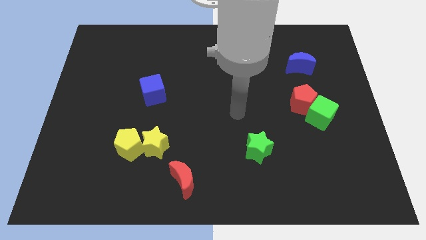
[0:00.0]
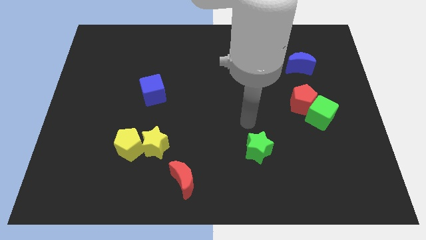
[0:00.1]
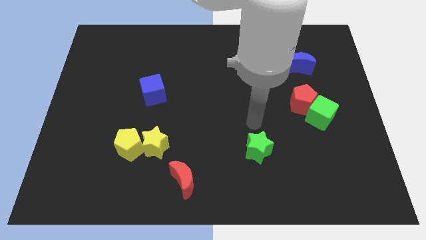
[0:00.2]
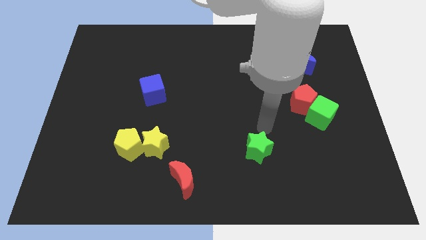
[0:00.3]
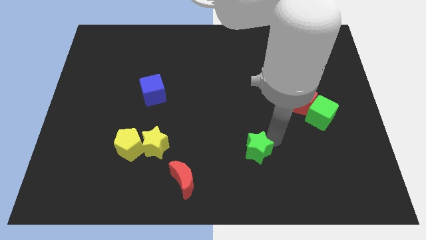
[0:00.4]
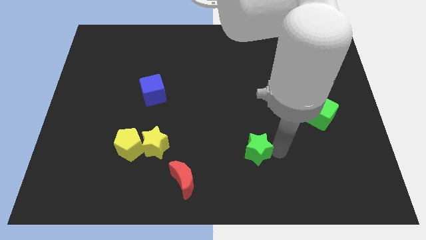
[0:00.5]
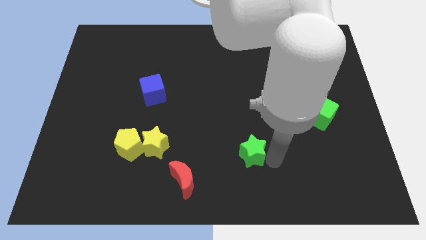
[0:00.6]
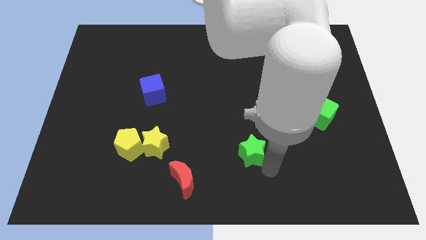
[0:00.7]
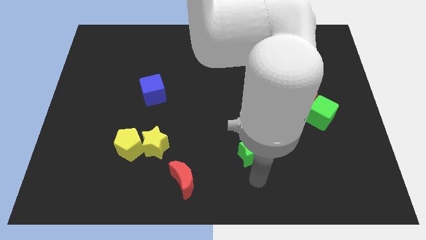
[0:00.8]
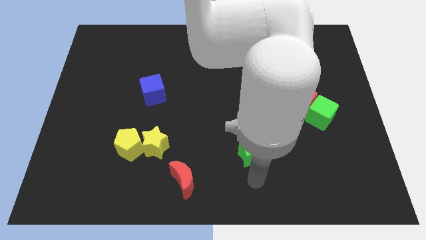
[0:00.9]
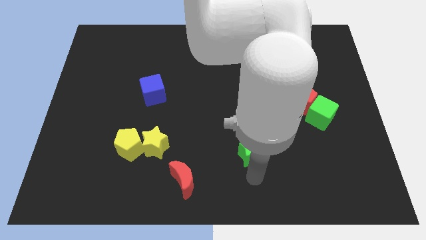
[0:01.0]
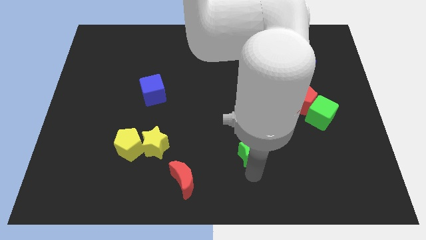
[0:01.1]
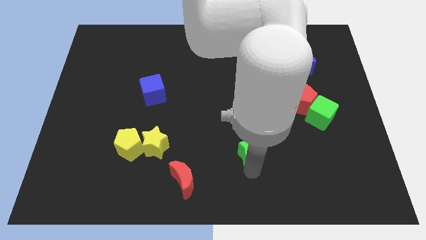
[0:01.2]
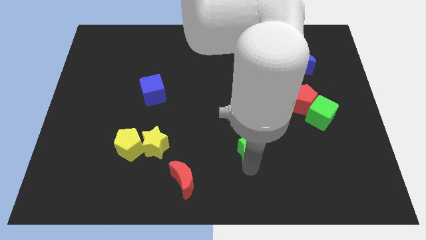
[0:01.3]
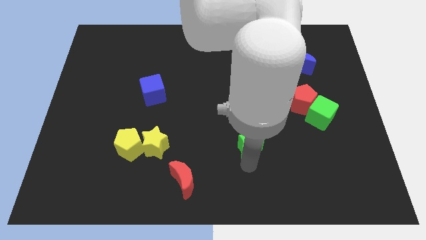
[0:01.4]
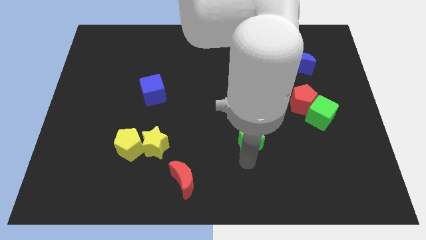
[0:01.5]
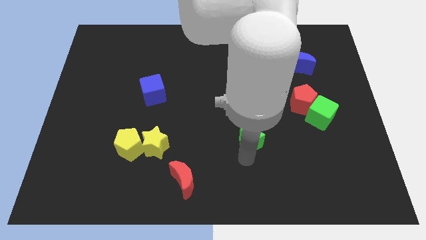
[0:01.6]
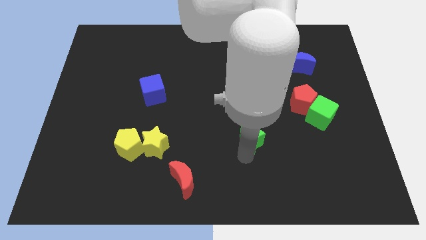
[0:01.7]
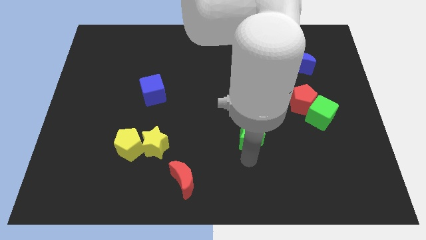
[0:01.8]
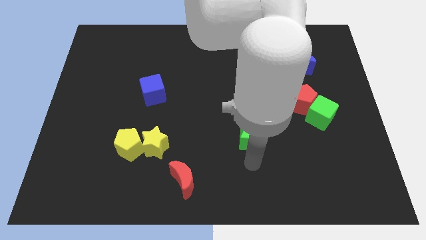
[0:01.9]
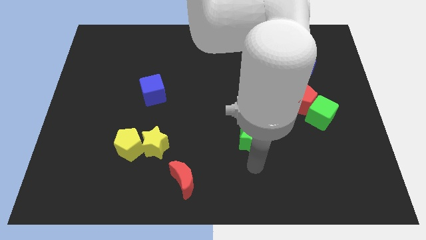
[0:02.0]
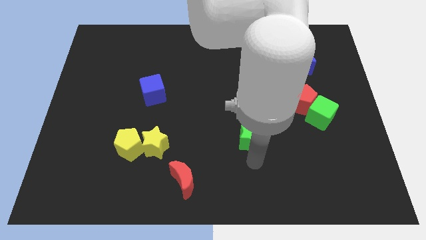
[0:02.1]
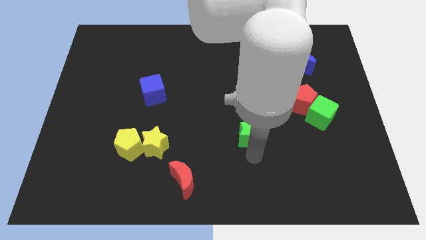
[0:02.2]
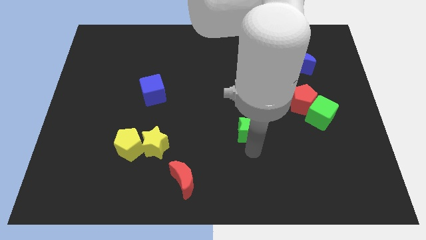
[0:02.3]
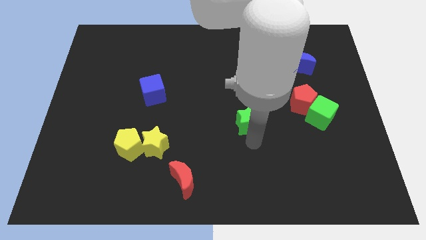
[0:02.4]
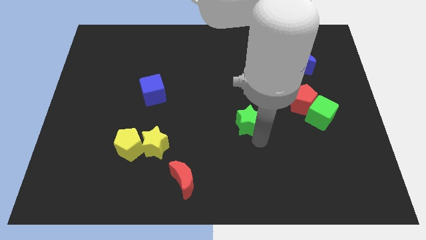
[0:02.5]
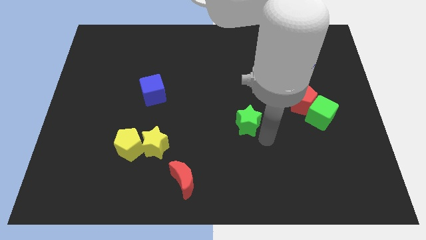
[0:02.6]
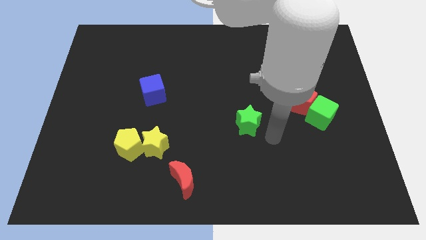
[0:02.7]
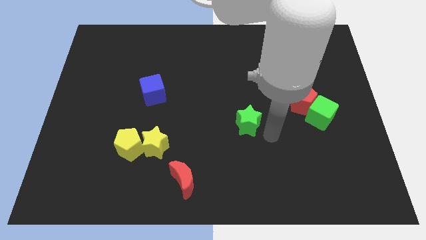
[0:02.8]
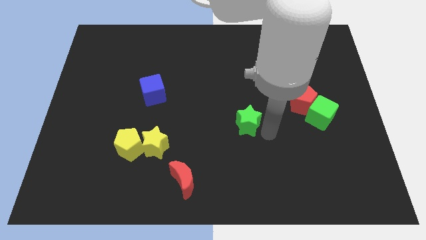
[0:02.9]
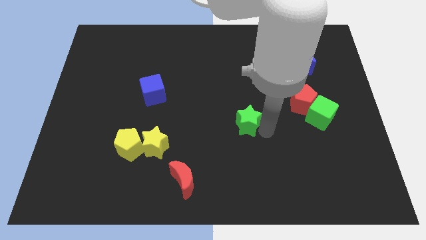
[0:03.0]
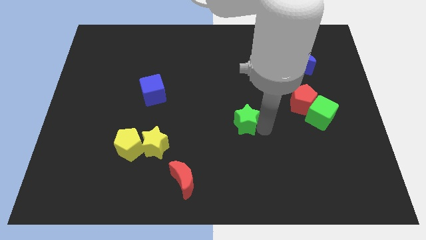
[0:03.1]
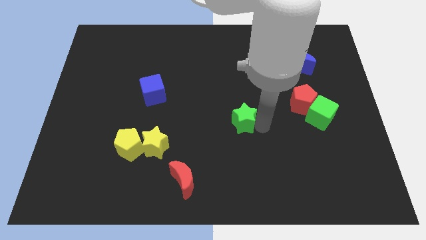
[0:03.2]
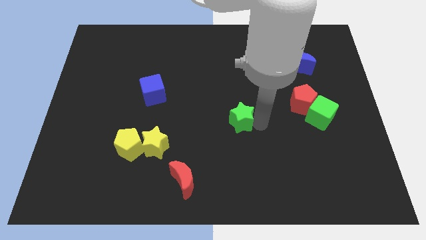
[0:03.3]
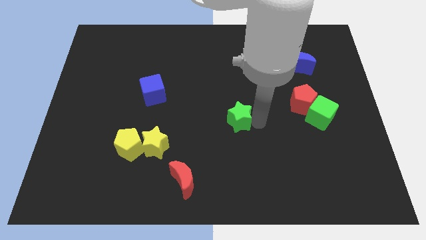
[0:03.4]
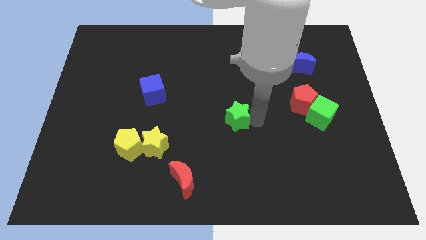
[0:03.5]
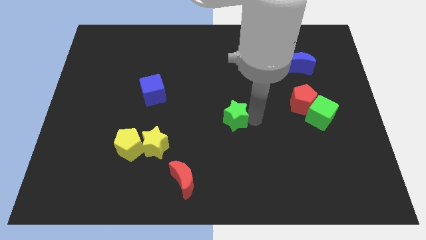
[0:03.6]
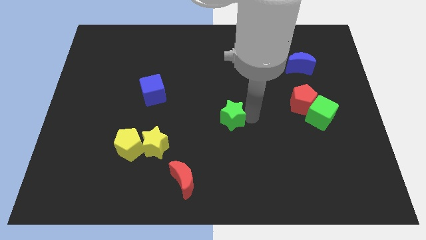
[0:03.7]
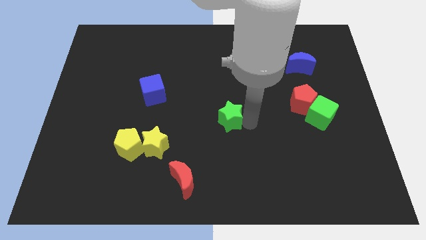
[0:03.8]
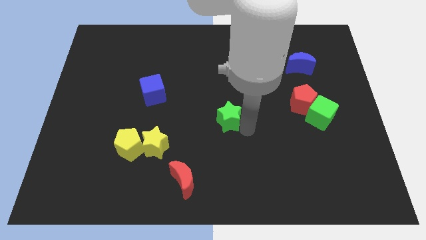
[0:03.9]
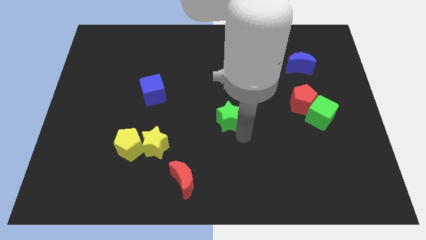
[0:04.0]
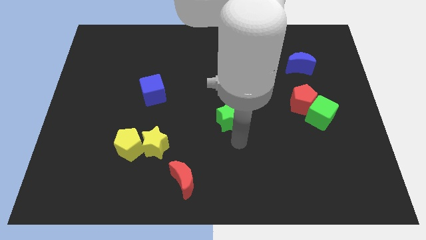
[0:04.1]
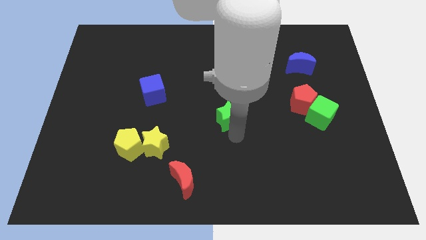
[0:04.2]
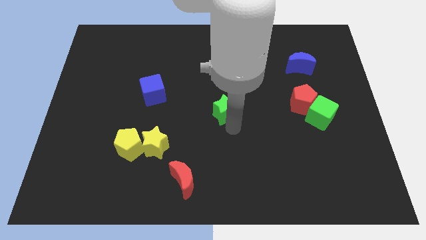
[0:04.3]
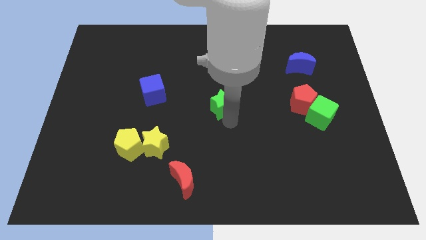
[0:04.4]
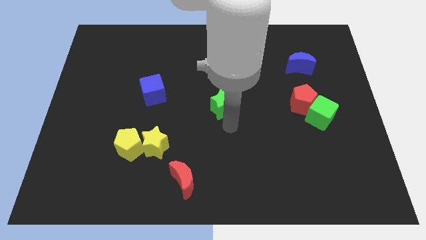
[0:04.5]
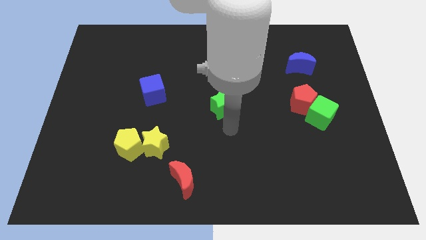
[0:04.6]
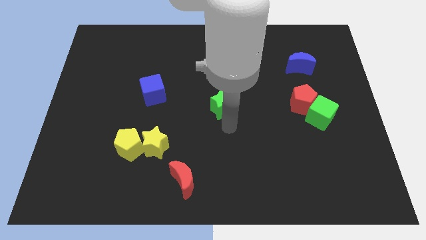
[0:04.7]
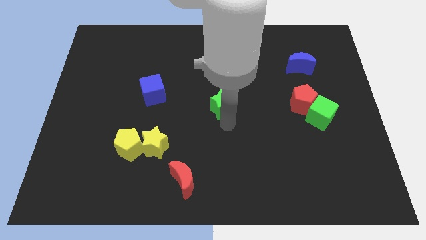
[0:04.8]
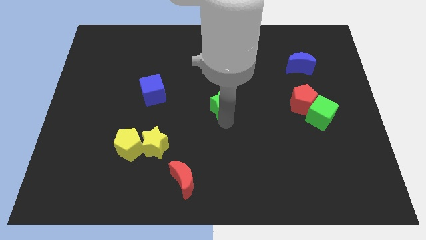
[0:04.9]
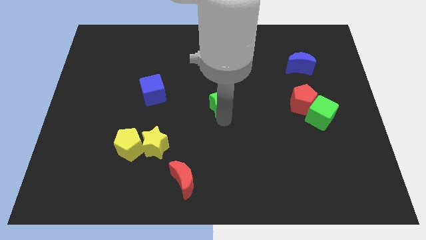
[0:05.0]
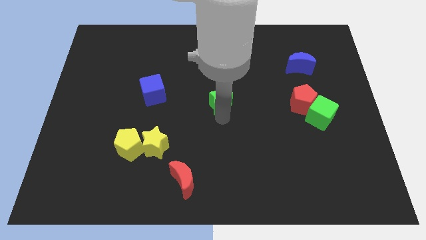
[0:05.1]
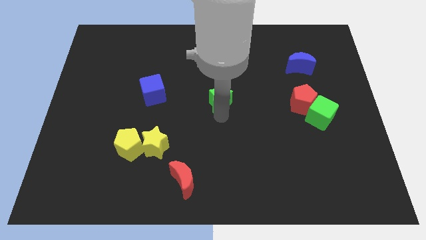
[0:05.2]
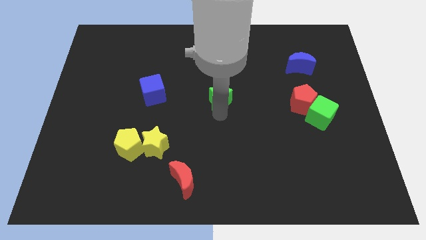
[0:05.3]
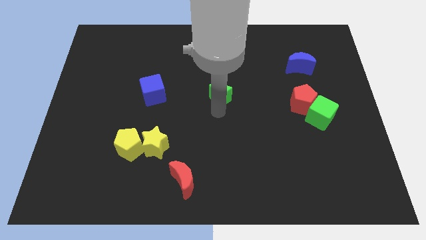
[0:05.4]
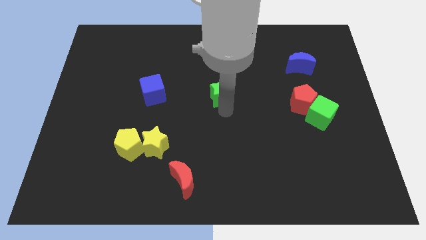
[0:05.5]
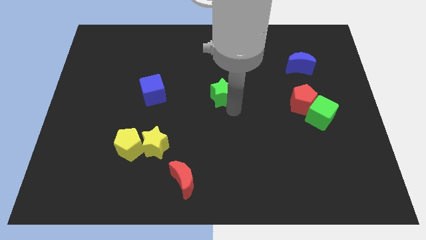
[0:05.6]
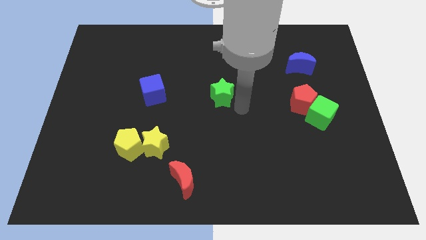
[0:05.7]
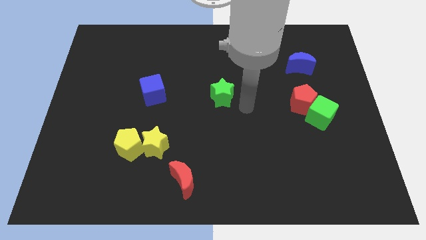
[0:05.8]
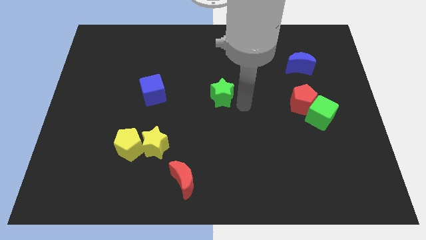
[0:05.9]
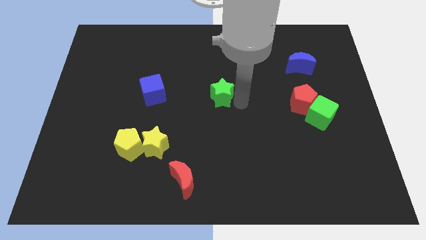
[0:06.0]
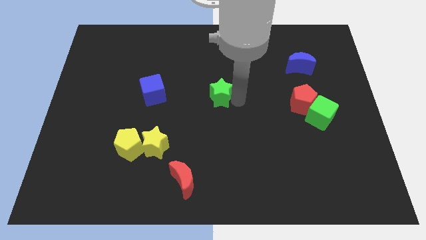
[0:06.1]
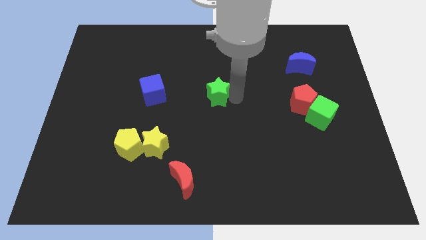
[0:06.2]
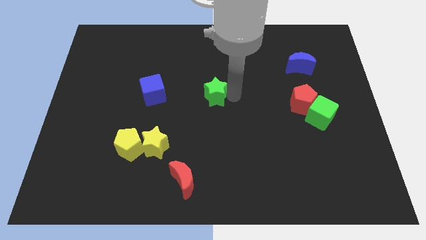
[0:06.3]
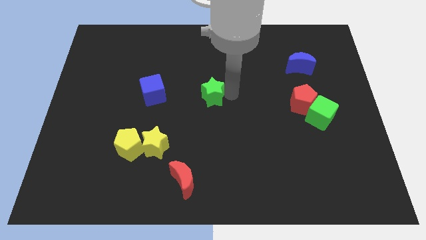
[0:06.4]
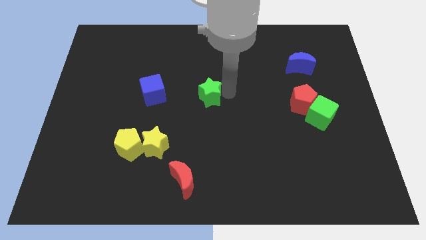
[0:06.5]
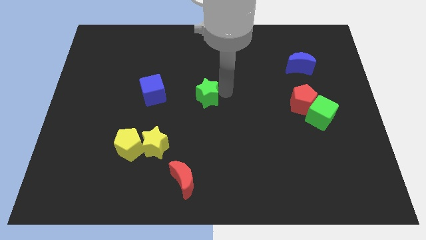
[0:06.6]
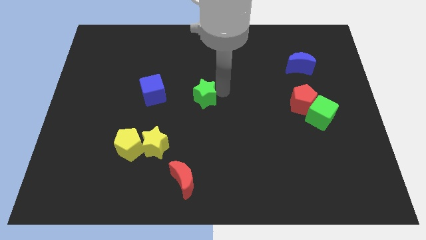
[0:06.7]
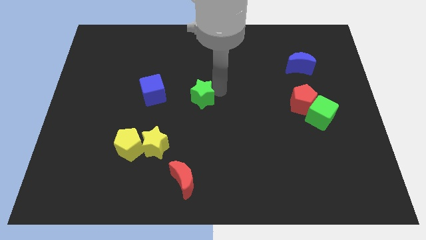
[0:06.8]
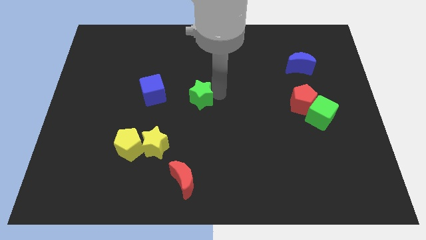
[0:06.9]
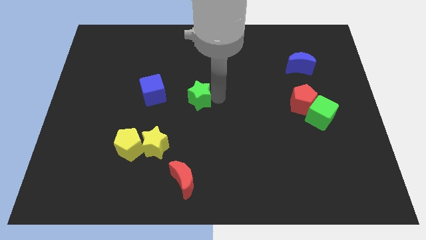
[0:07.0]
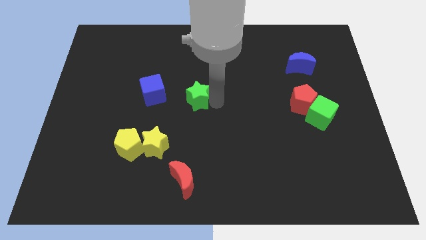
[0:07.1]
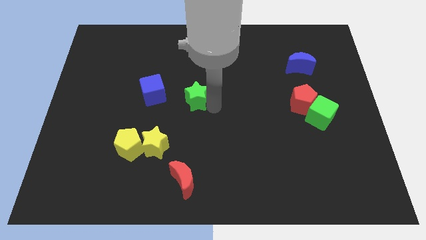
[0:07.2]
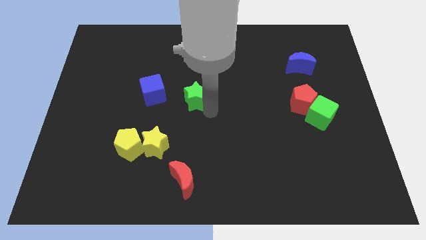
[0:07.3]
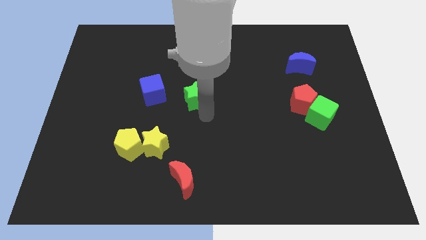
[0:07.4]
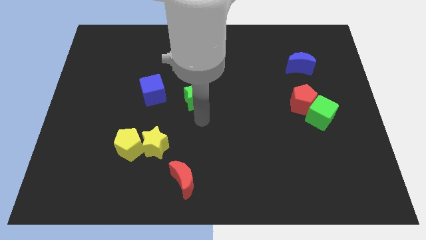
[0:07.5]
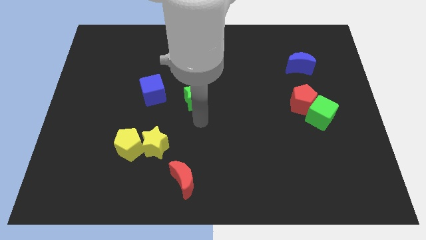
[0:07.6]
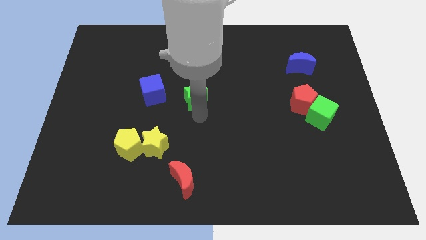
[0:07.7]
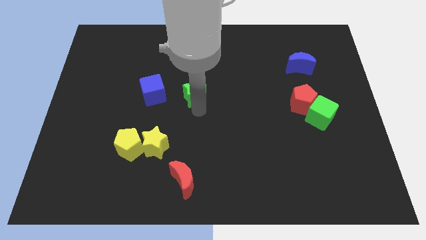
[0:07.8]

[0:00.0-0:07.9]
slide the green star up and then to the left
